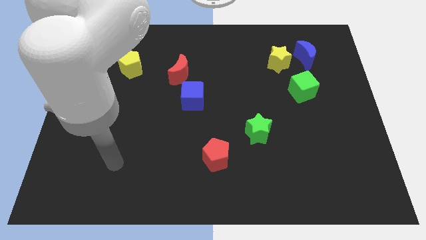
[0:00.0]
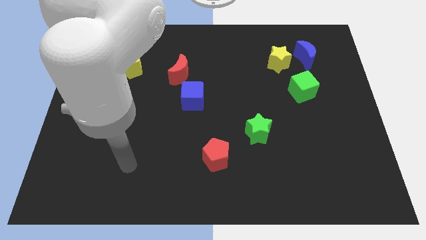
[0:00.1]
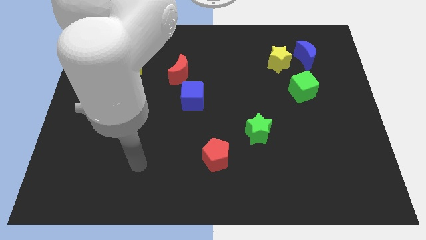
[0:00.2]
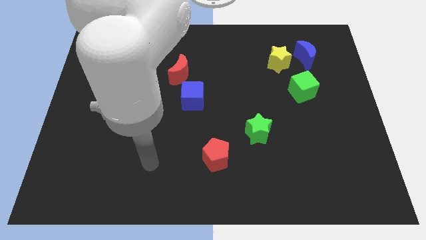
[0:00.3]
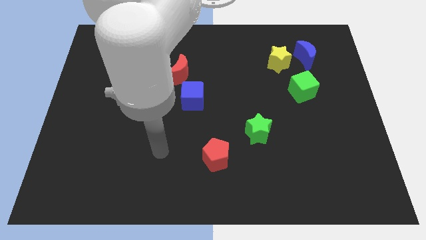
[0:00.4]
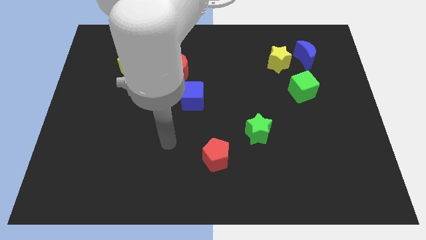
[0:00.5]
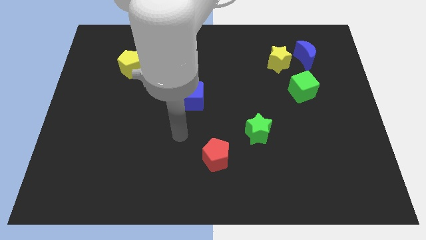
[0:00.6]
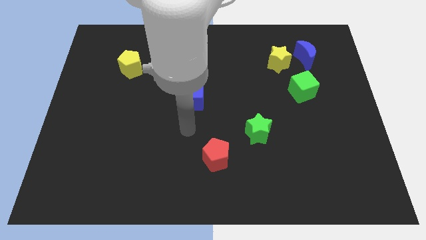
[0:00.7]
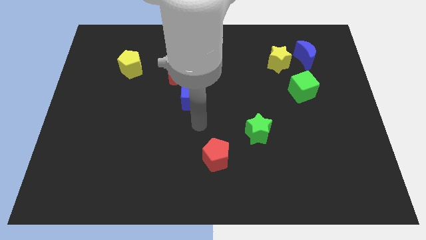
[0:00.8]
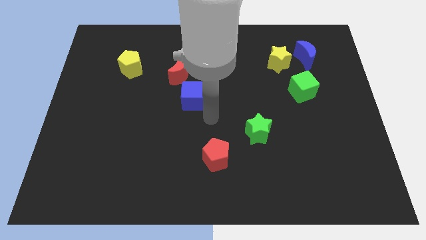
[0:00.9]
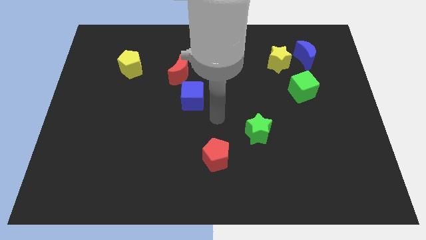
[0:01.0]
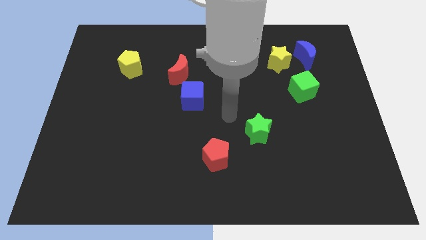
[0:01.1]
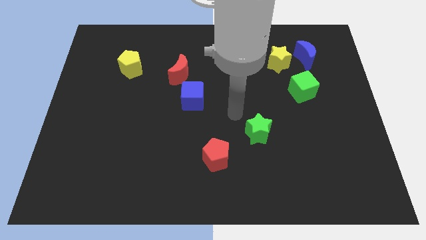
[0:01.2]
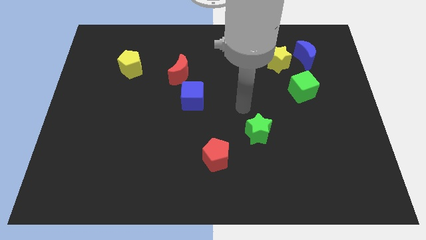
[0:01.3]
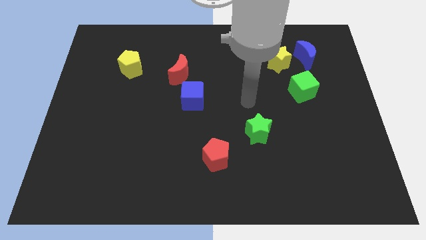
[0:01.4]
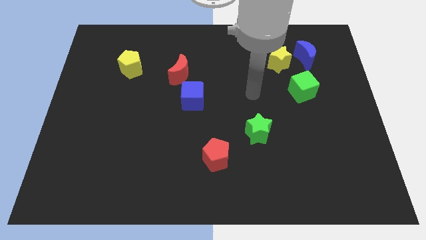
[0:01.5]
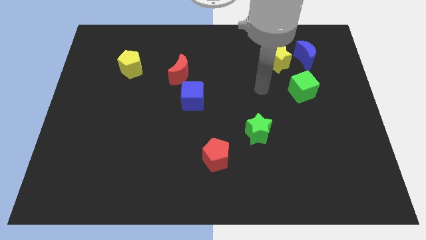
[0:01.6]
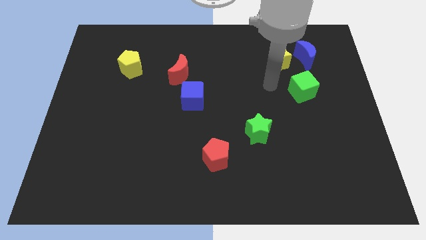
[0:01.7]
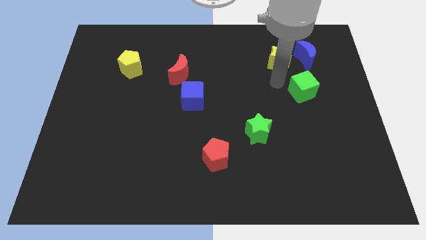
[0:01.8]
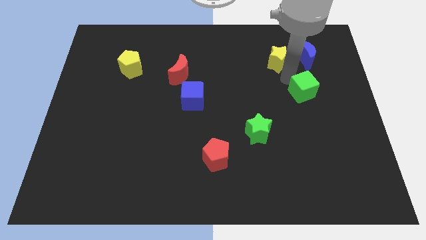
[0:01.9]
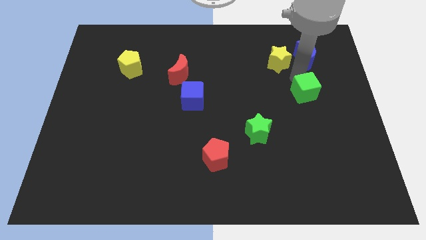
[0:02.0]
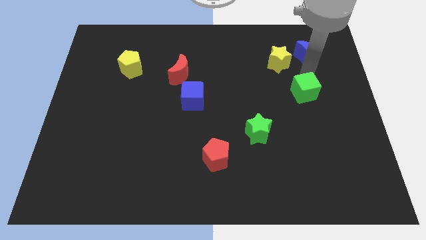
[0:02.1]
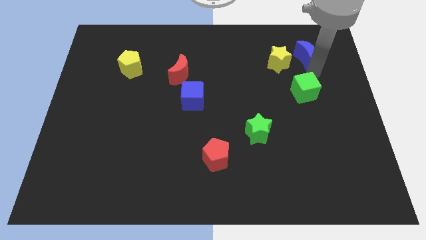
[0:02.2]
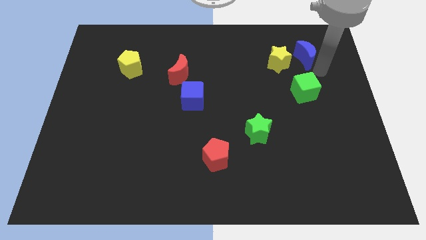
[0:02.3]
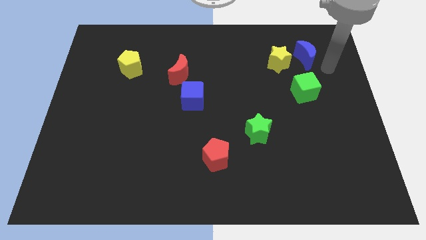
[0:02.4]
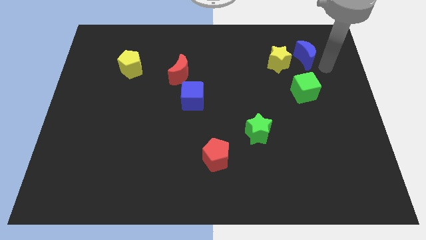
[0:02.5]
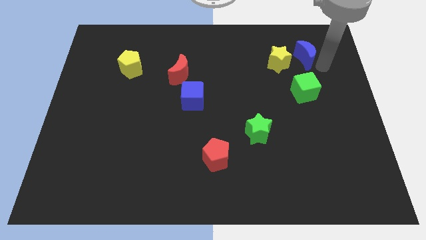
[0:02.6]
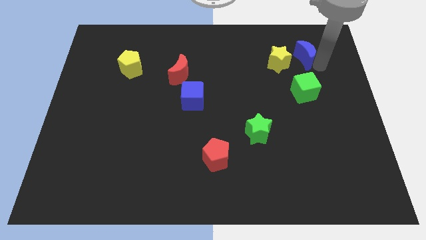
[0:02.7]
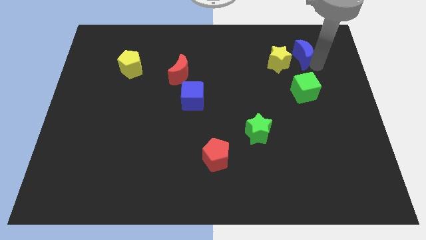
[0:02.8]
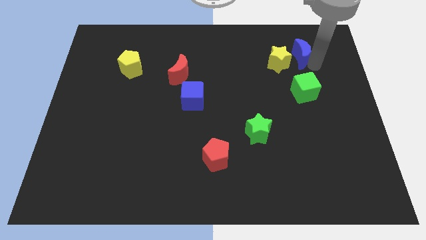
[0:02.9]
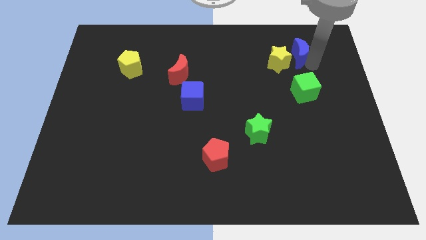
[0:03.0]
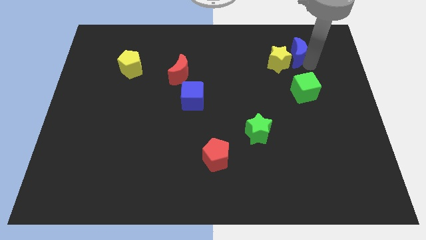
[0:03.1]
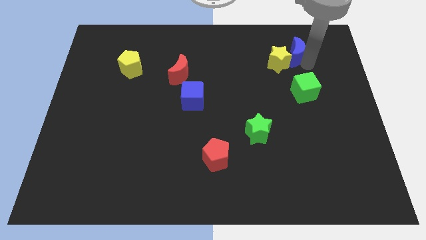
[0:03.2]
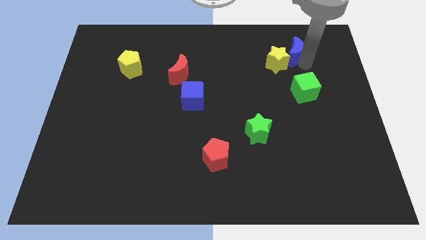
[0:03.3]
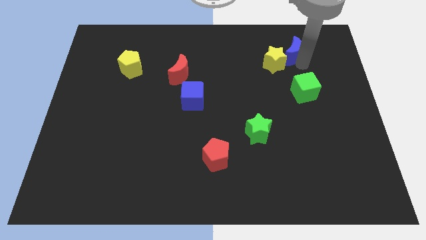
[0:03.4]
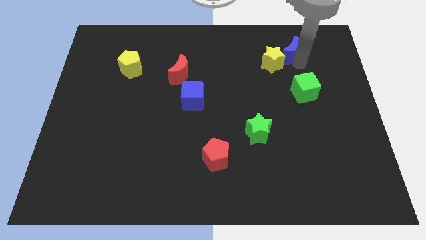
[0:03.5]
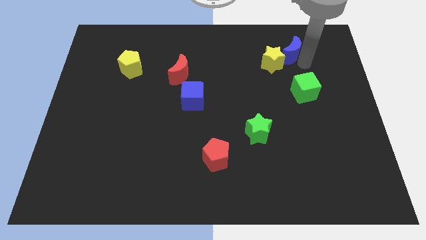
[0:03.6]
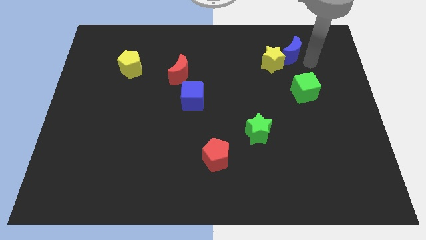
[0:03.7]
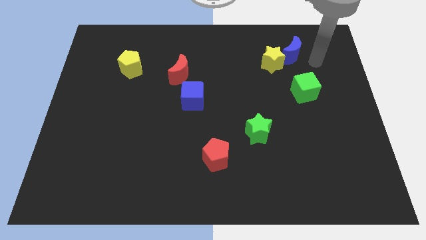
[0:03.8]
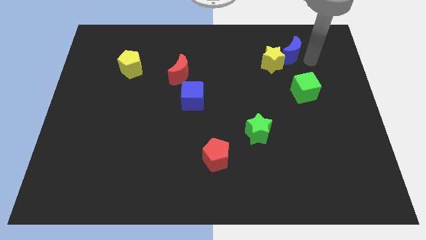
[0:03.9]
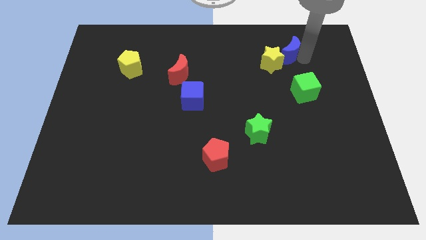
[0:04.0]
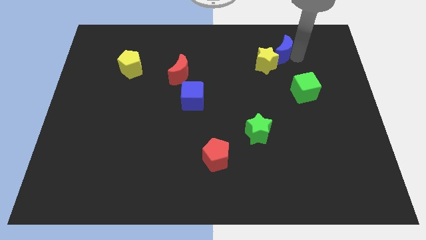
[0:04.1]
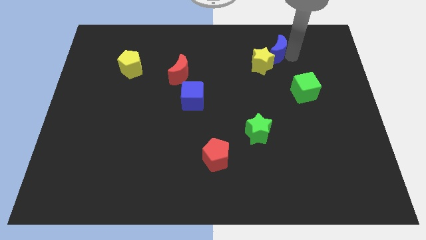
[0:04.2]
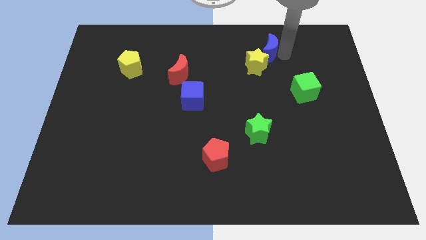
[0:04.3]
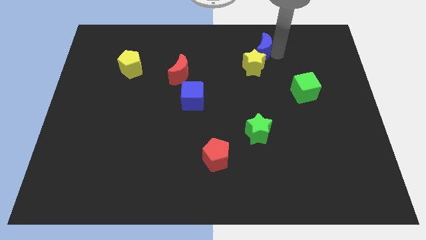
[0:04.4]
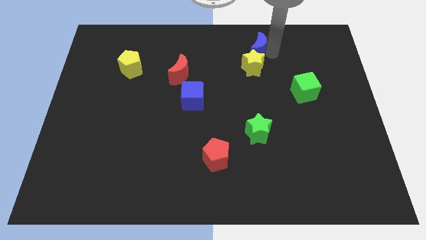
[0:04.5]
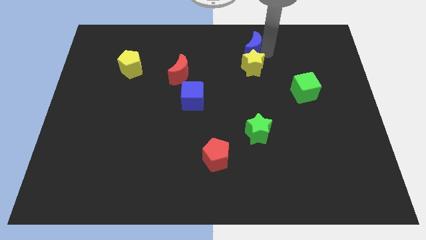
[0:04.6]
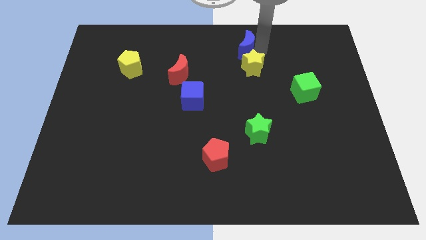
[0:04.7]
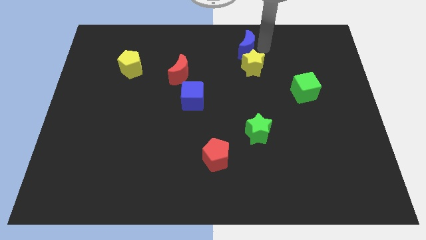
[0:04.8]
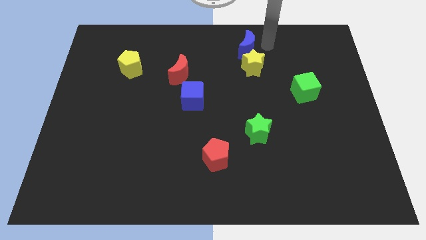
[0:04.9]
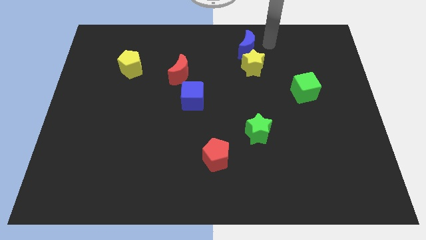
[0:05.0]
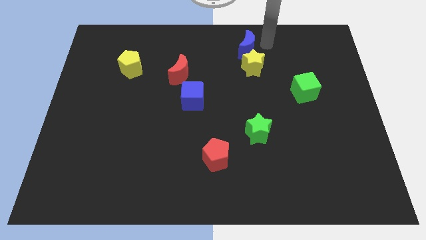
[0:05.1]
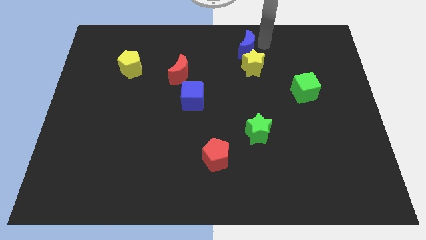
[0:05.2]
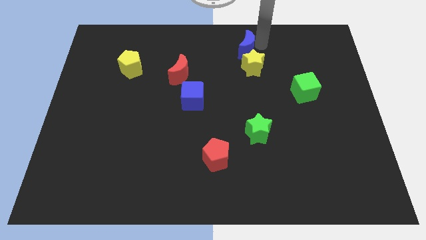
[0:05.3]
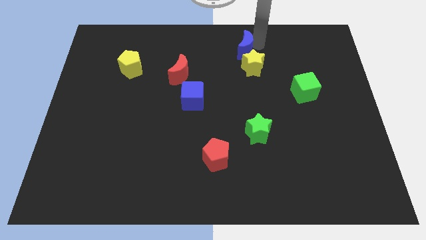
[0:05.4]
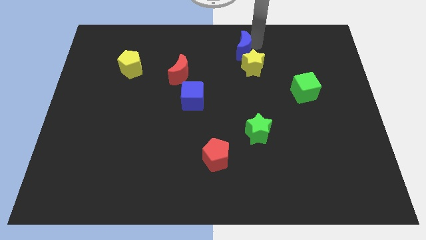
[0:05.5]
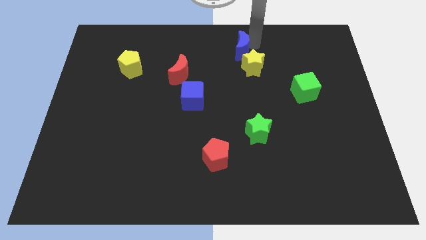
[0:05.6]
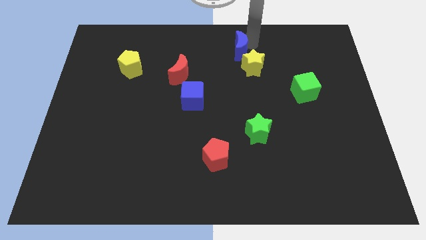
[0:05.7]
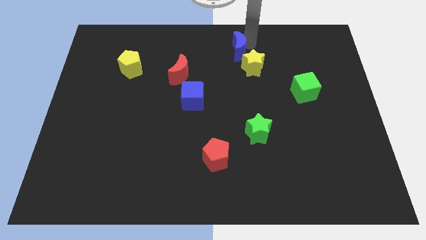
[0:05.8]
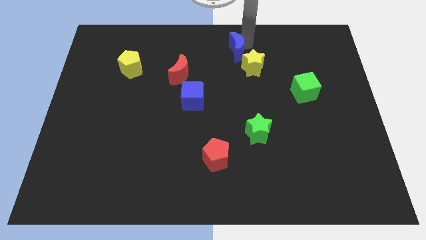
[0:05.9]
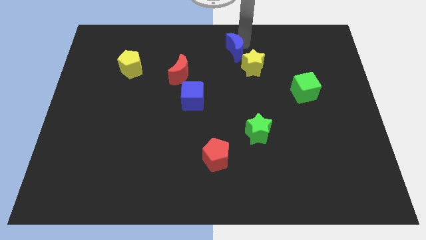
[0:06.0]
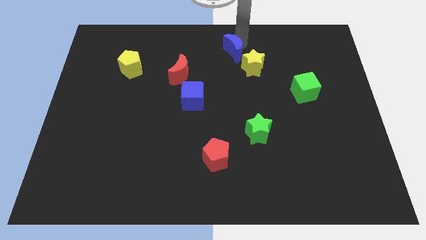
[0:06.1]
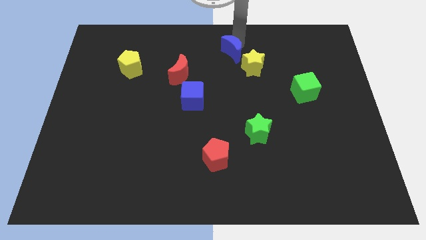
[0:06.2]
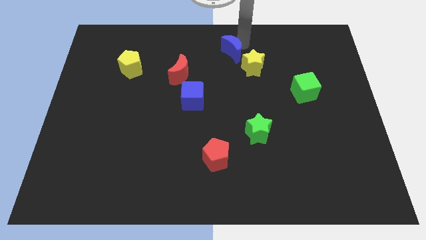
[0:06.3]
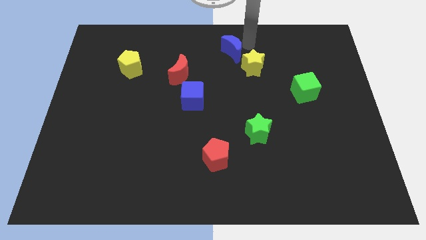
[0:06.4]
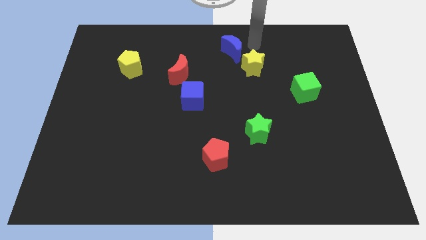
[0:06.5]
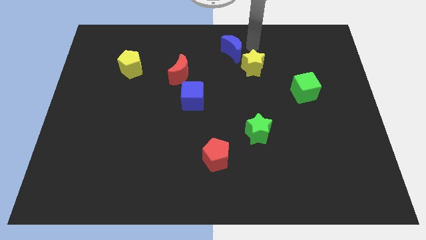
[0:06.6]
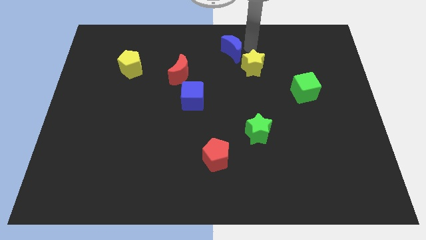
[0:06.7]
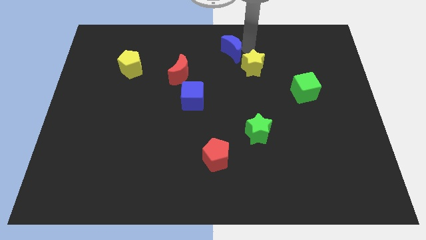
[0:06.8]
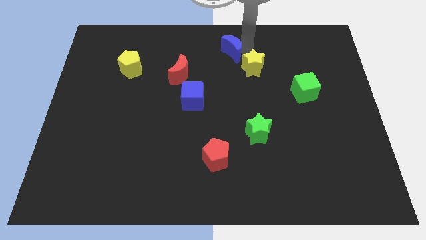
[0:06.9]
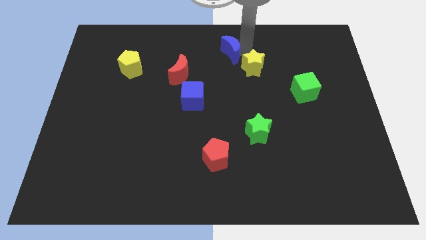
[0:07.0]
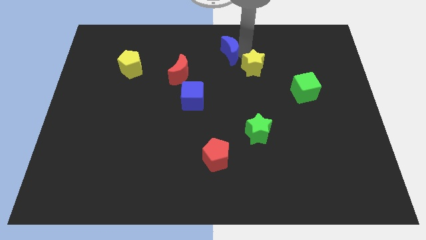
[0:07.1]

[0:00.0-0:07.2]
slide the blue moon left

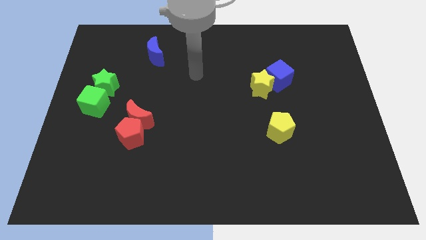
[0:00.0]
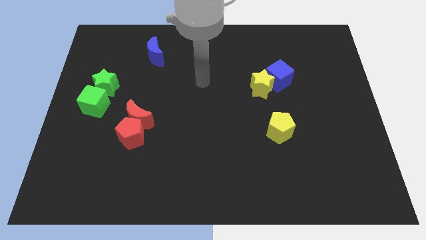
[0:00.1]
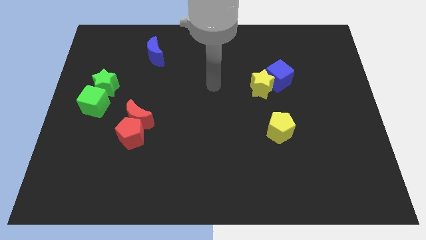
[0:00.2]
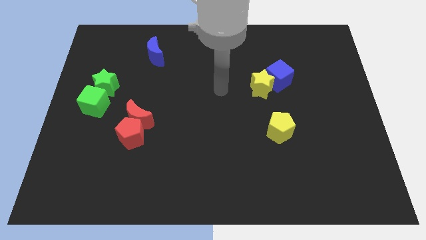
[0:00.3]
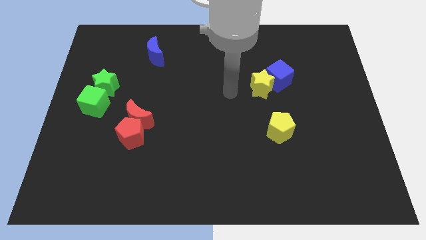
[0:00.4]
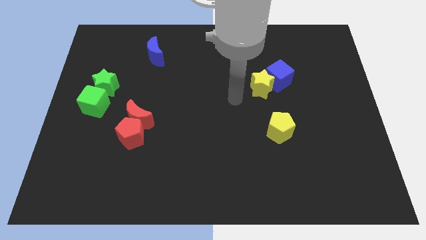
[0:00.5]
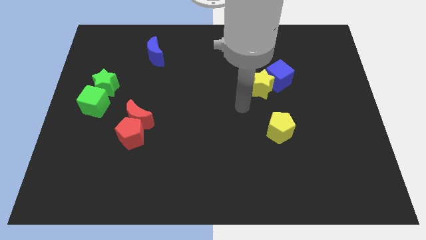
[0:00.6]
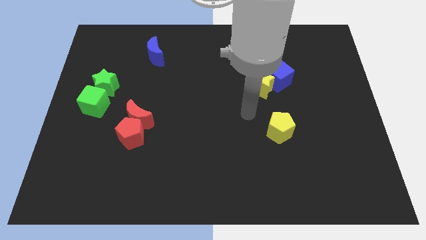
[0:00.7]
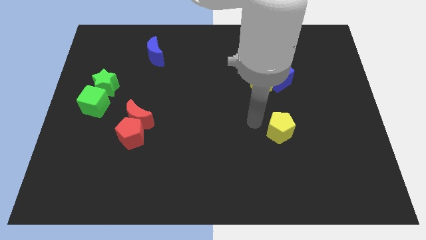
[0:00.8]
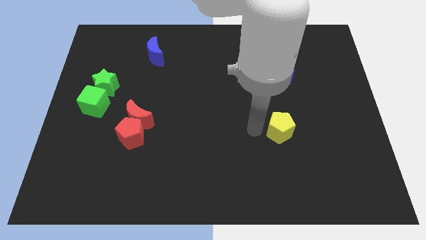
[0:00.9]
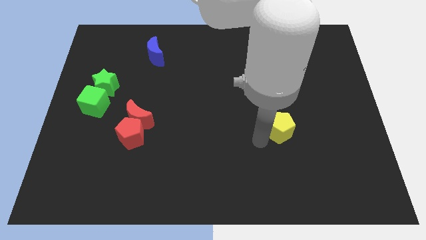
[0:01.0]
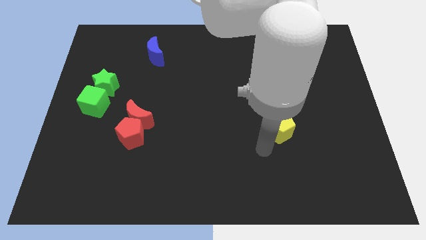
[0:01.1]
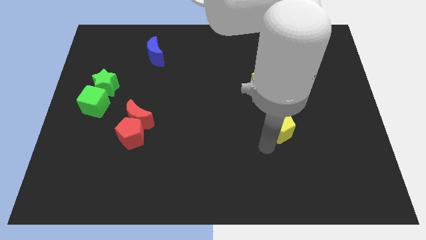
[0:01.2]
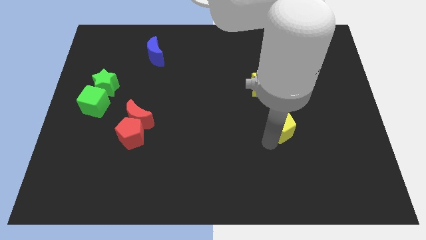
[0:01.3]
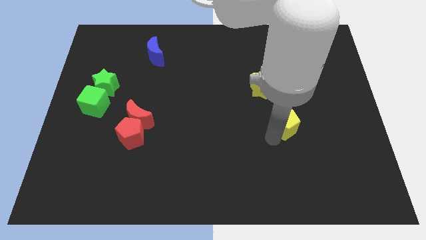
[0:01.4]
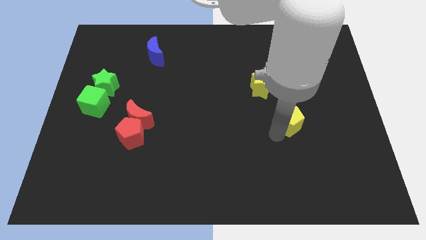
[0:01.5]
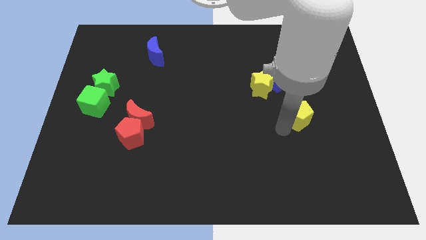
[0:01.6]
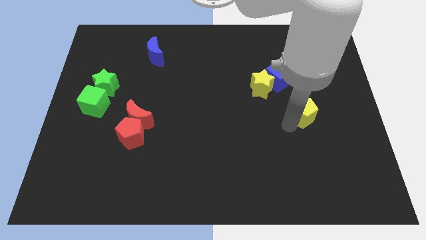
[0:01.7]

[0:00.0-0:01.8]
move the yellow pentagon upwards and right slightly
